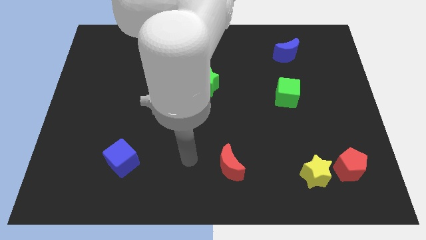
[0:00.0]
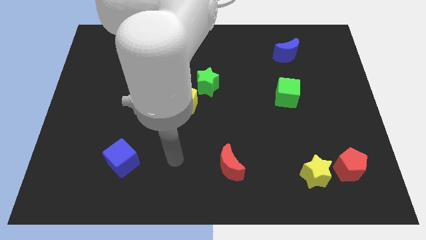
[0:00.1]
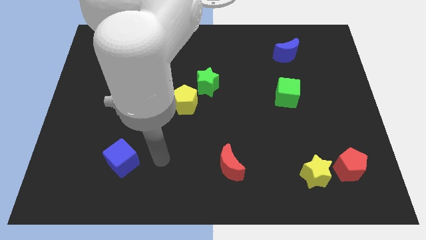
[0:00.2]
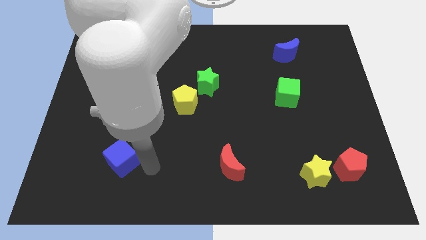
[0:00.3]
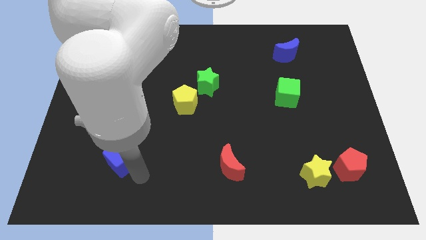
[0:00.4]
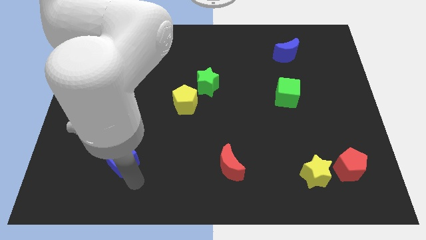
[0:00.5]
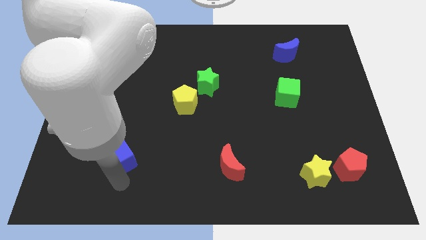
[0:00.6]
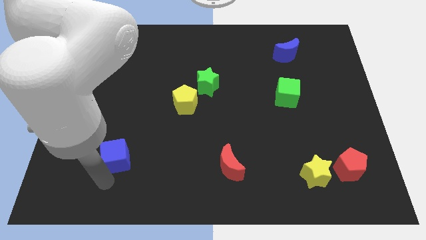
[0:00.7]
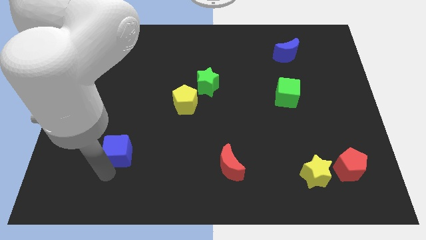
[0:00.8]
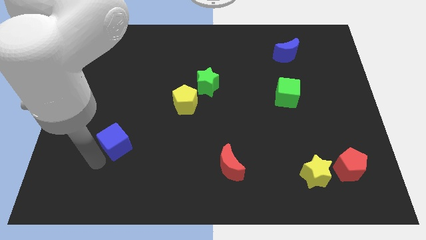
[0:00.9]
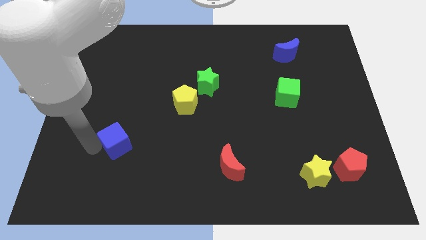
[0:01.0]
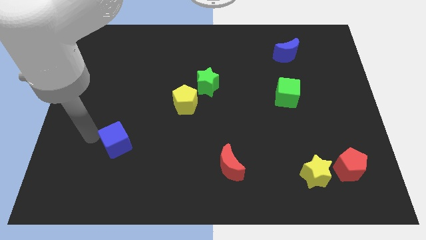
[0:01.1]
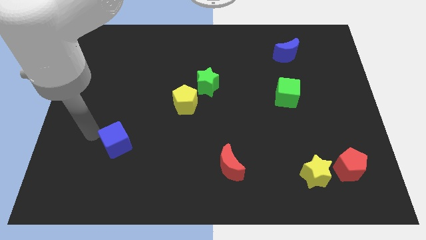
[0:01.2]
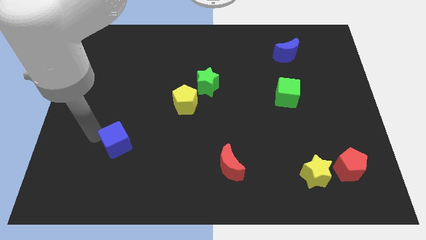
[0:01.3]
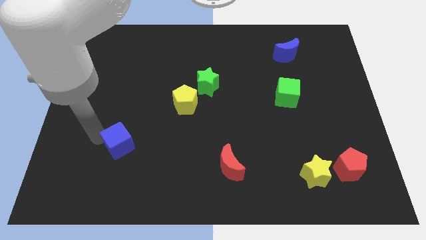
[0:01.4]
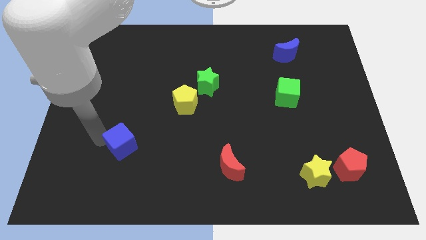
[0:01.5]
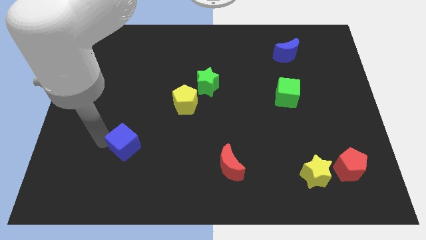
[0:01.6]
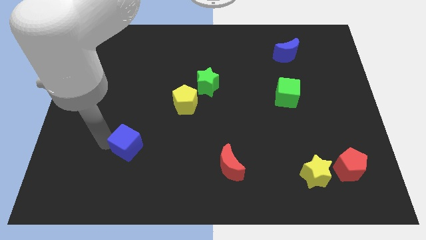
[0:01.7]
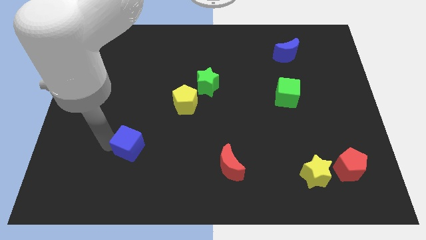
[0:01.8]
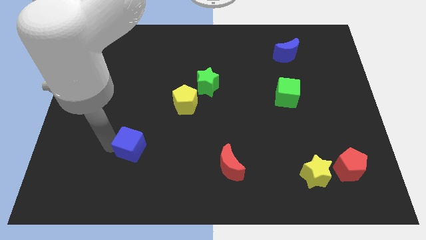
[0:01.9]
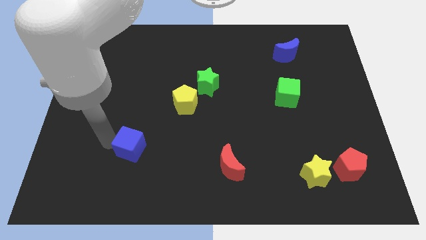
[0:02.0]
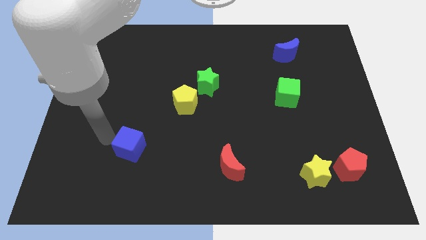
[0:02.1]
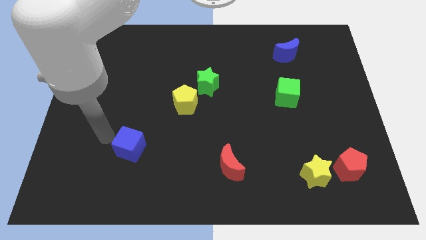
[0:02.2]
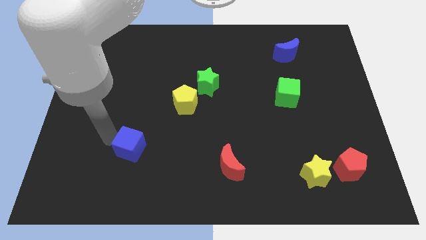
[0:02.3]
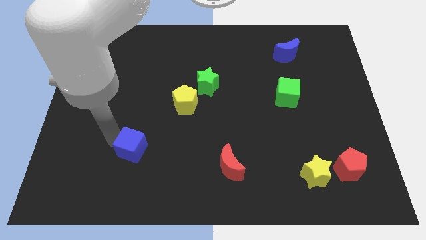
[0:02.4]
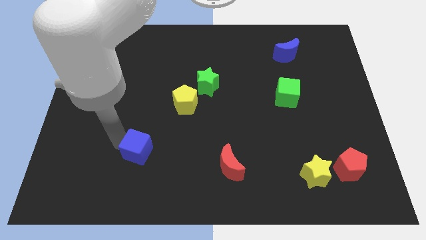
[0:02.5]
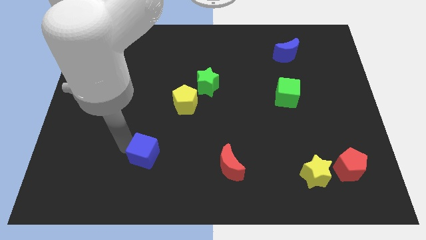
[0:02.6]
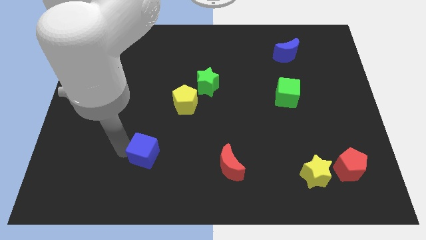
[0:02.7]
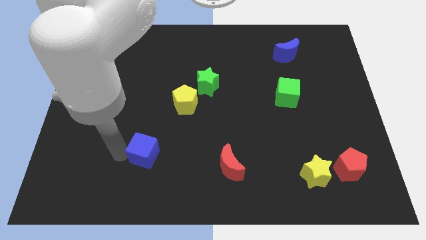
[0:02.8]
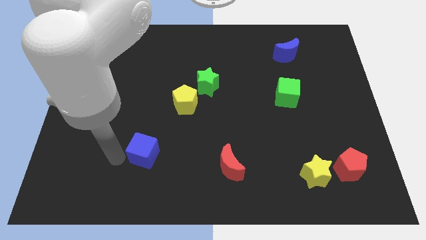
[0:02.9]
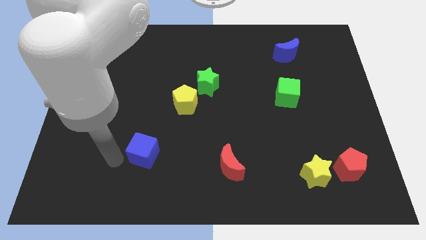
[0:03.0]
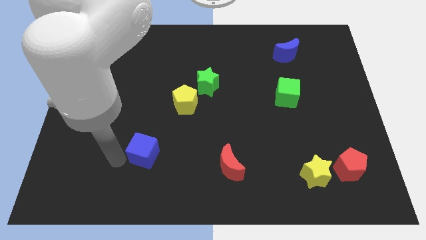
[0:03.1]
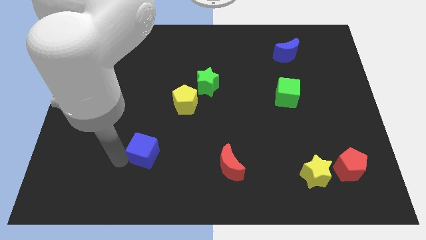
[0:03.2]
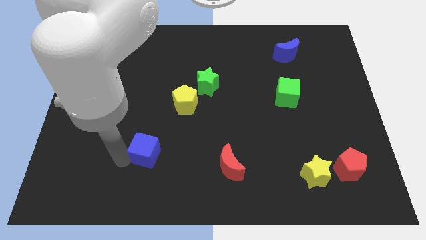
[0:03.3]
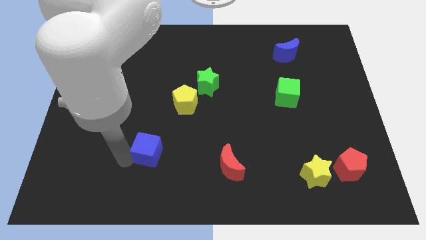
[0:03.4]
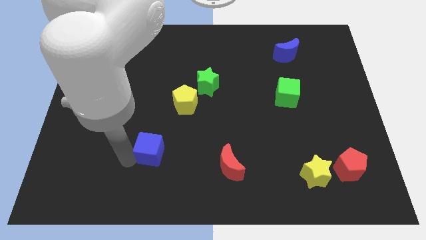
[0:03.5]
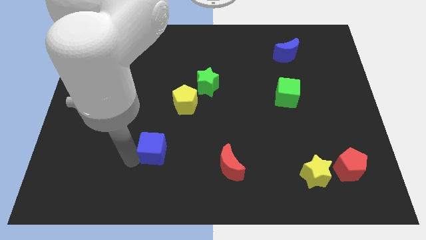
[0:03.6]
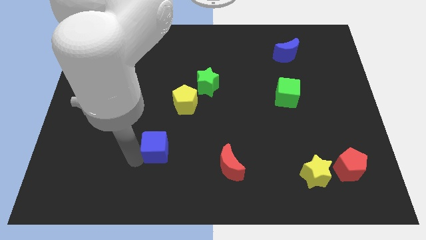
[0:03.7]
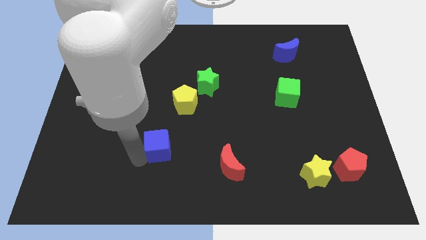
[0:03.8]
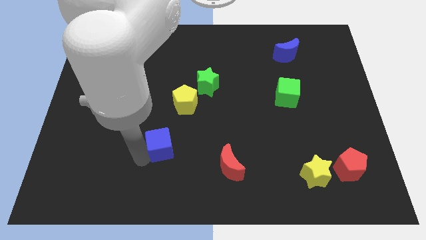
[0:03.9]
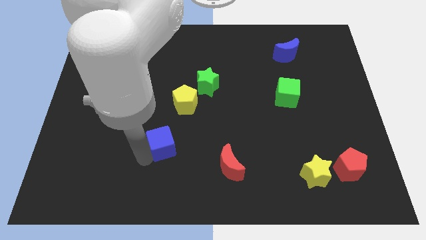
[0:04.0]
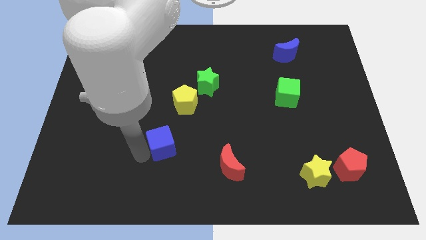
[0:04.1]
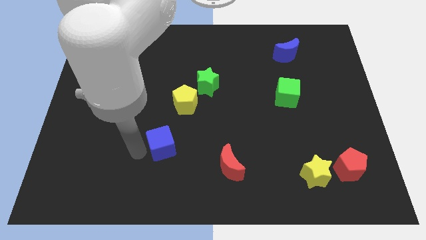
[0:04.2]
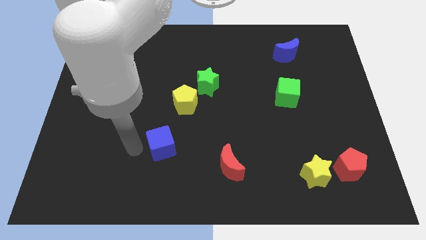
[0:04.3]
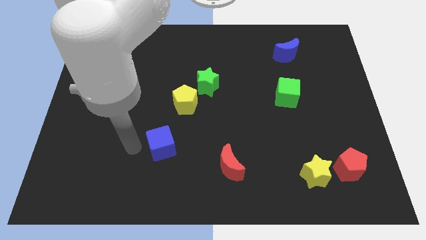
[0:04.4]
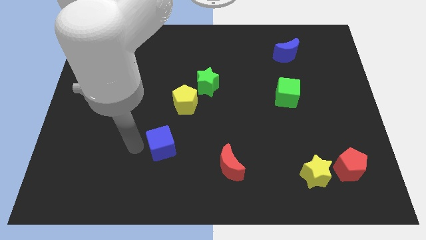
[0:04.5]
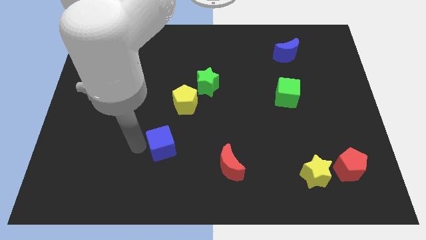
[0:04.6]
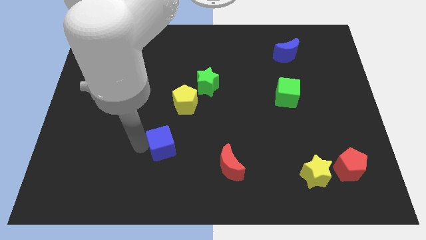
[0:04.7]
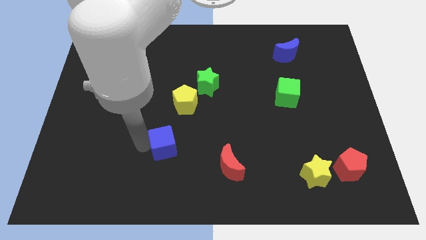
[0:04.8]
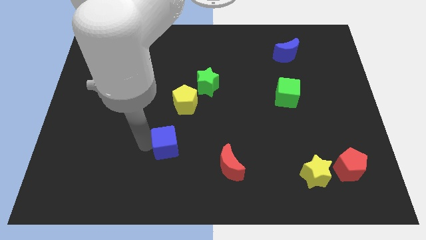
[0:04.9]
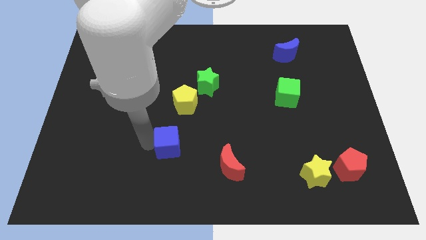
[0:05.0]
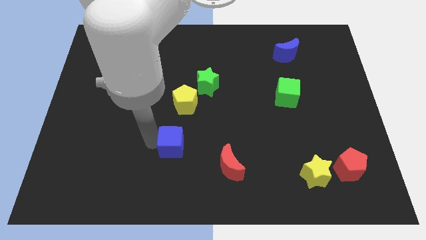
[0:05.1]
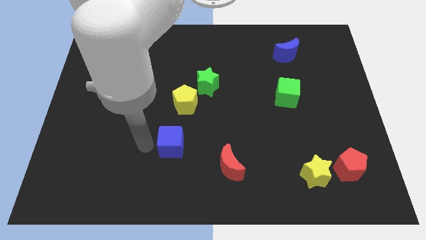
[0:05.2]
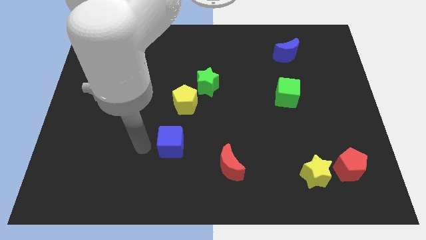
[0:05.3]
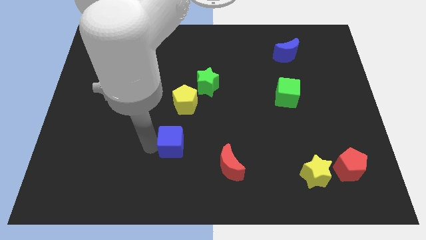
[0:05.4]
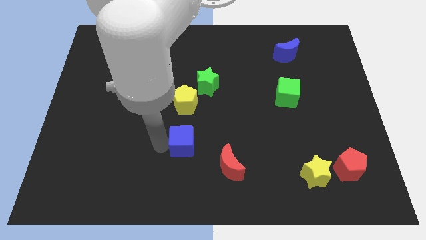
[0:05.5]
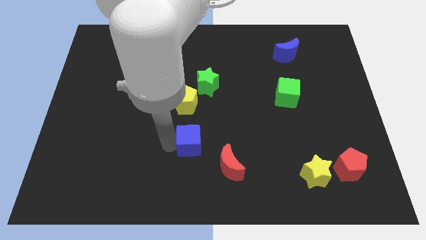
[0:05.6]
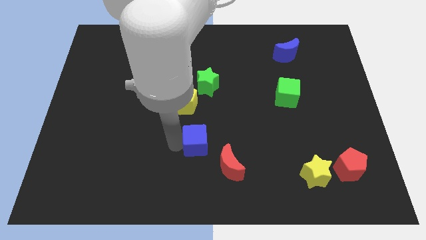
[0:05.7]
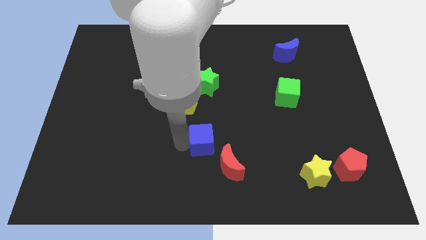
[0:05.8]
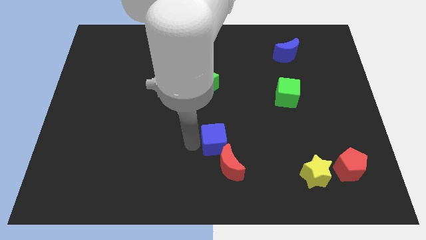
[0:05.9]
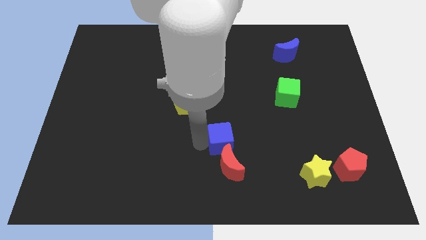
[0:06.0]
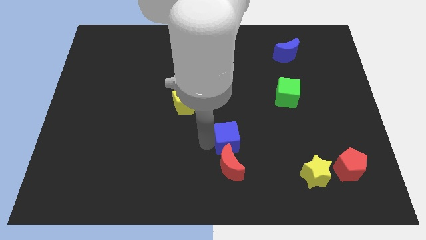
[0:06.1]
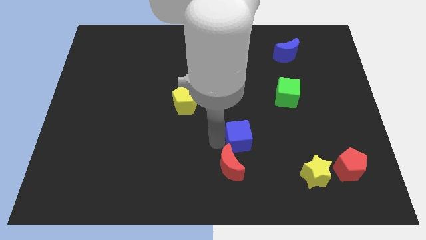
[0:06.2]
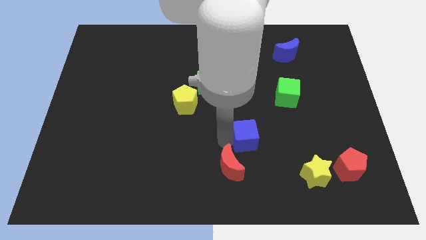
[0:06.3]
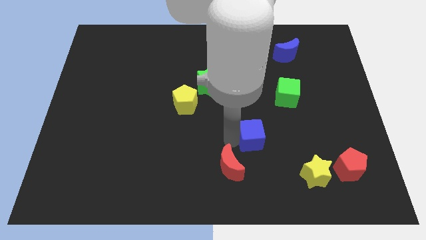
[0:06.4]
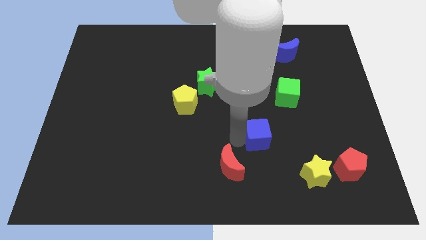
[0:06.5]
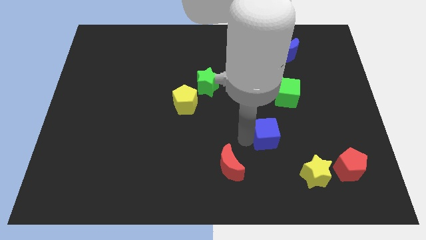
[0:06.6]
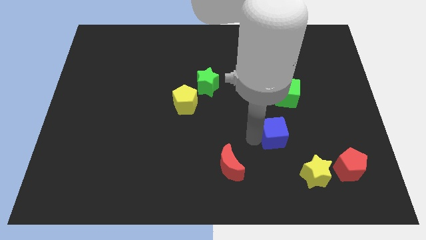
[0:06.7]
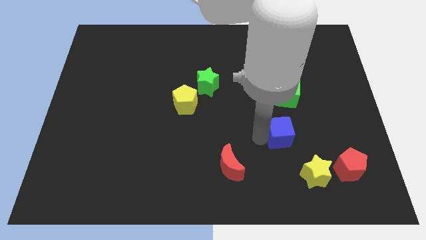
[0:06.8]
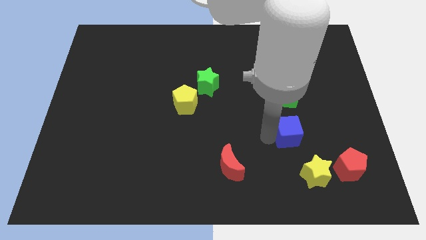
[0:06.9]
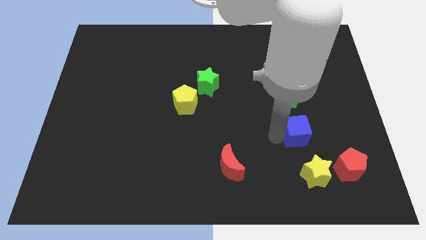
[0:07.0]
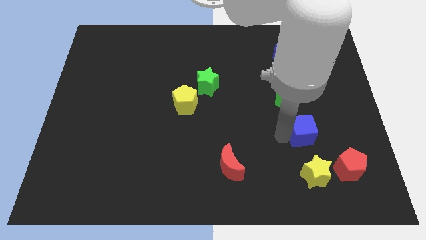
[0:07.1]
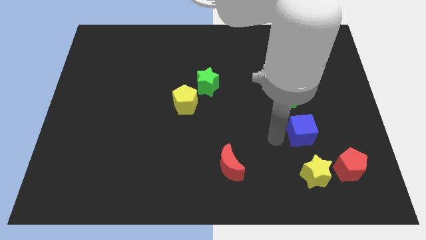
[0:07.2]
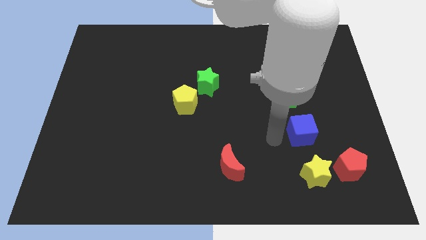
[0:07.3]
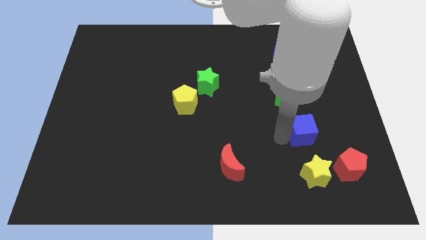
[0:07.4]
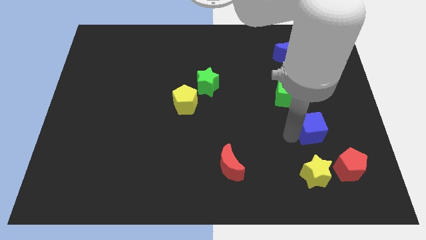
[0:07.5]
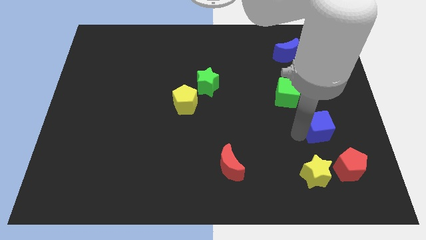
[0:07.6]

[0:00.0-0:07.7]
put the blue cube to the top side of the red pentagon

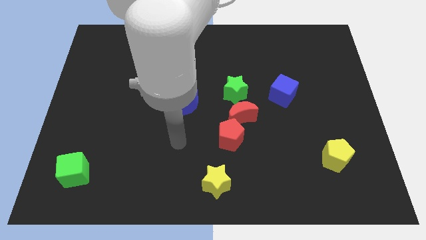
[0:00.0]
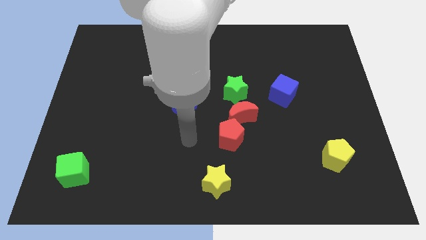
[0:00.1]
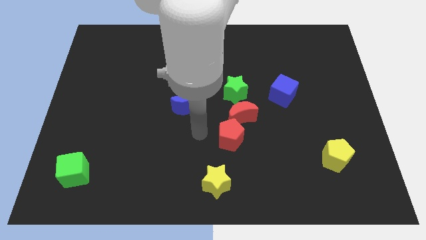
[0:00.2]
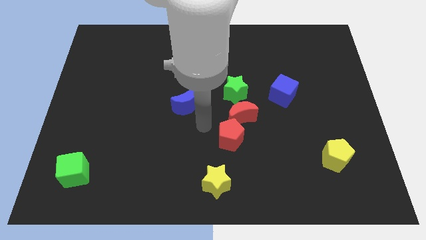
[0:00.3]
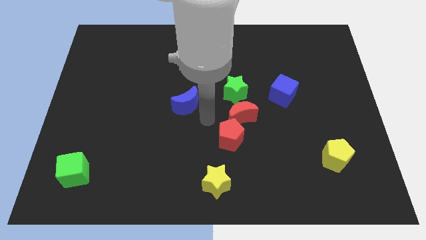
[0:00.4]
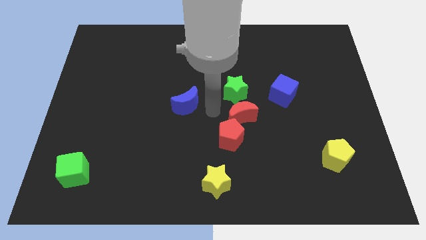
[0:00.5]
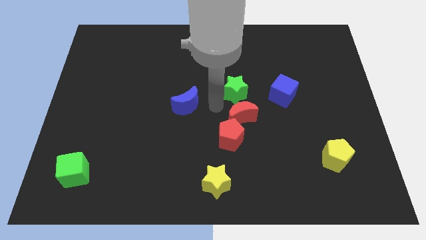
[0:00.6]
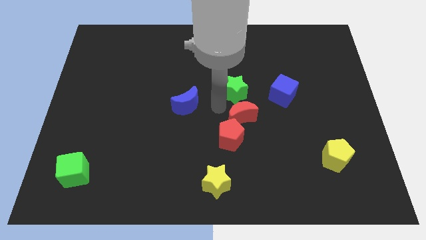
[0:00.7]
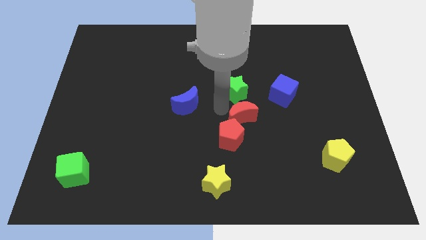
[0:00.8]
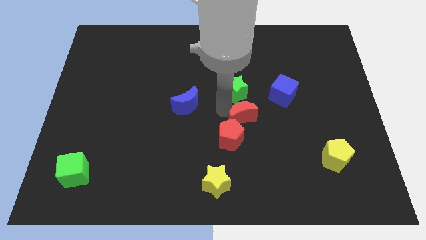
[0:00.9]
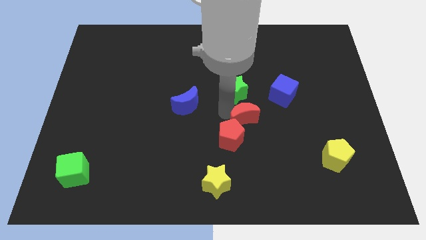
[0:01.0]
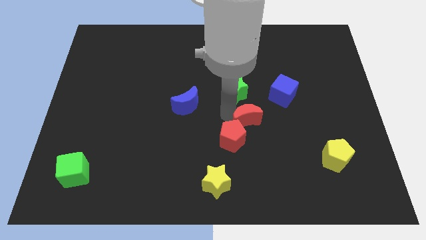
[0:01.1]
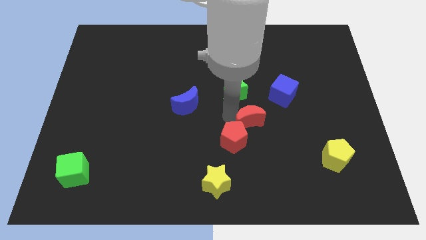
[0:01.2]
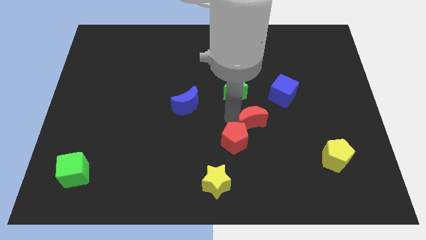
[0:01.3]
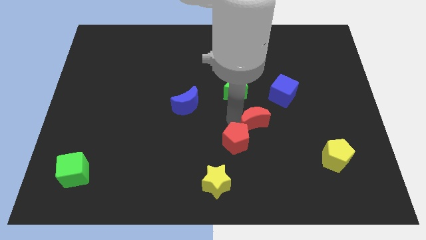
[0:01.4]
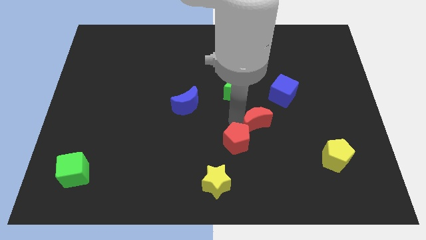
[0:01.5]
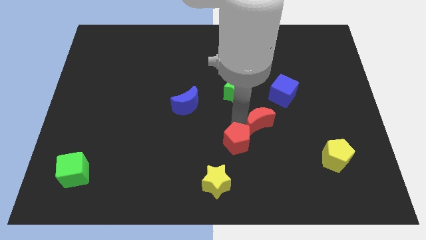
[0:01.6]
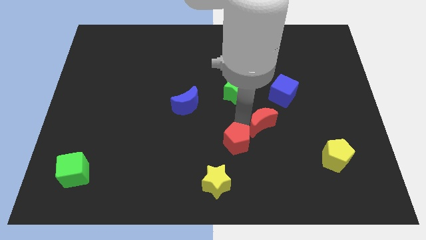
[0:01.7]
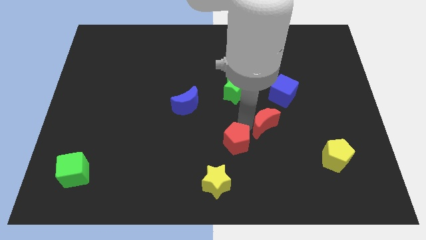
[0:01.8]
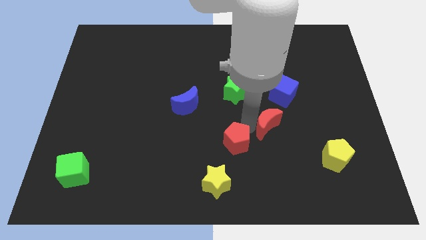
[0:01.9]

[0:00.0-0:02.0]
put the red moon below the blue cube
